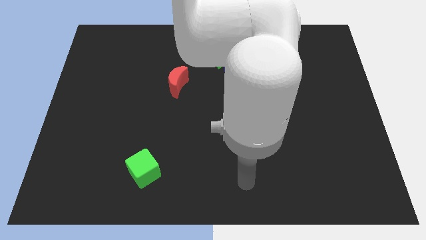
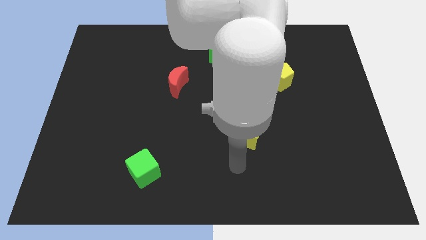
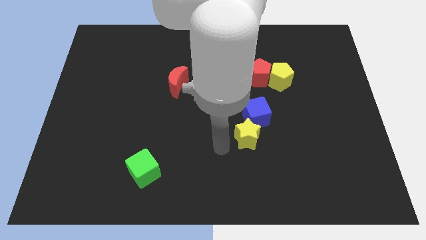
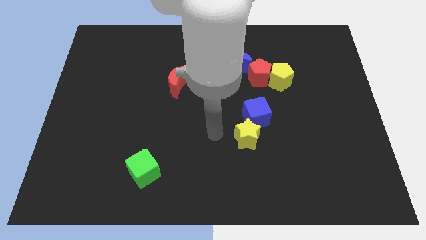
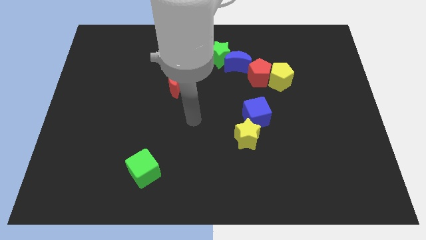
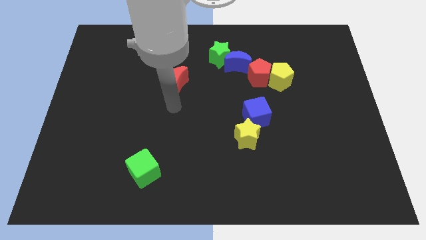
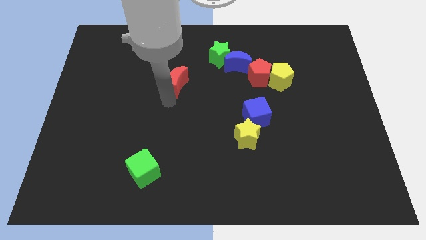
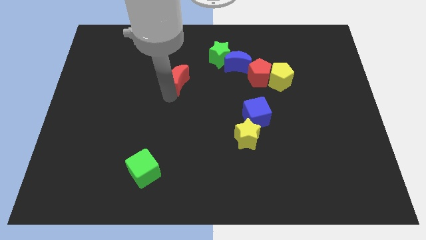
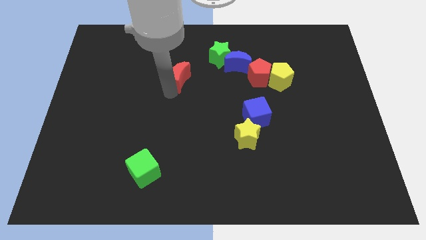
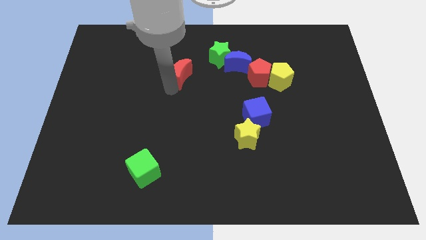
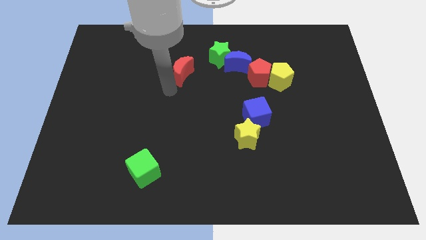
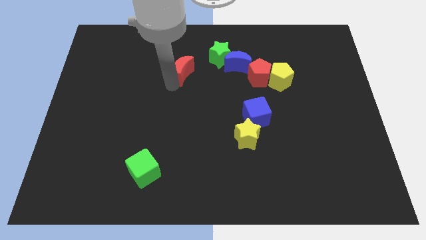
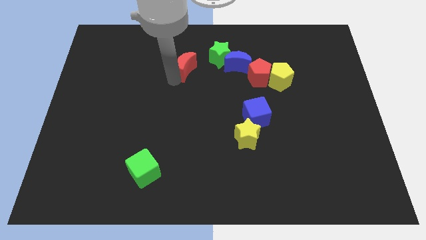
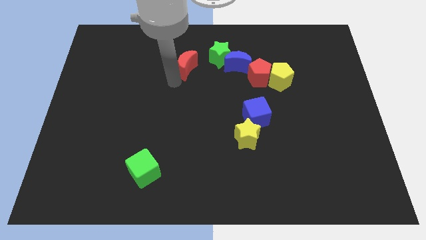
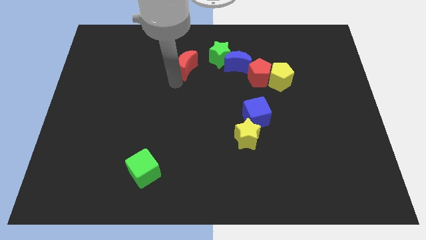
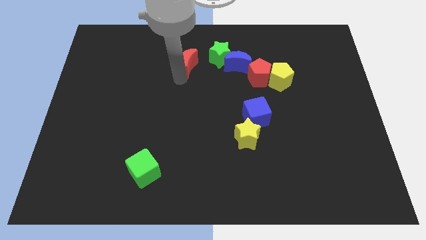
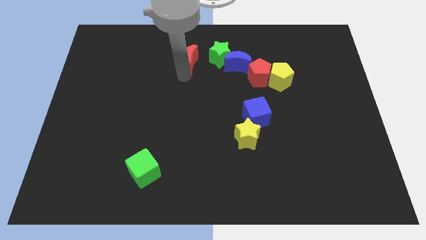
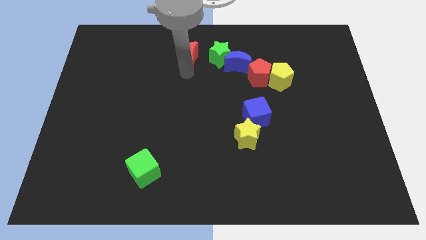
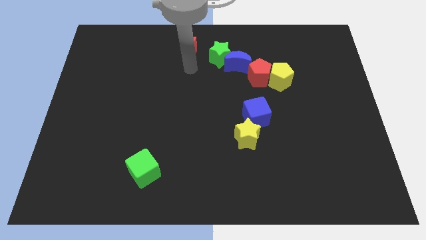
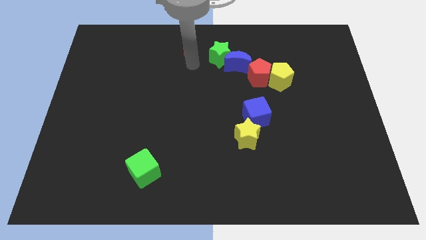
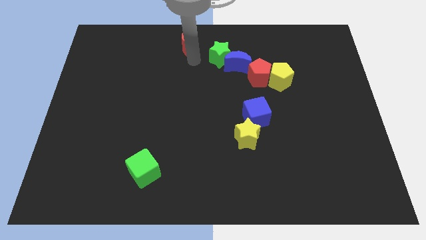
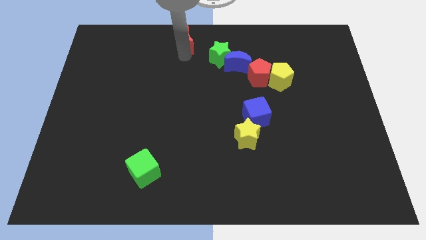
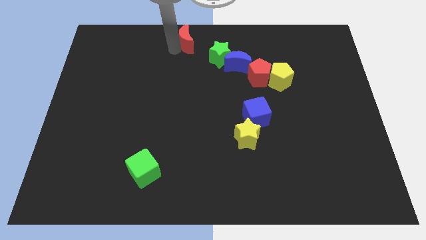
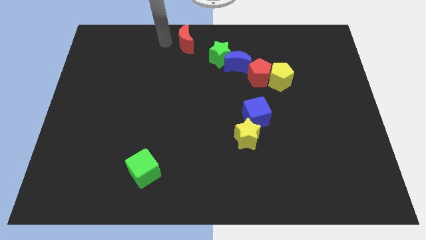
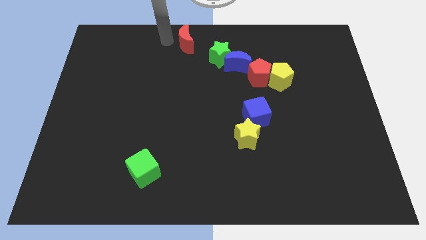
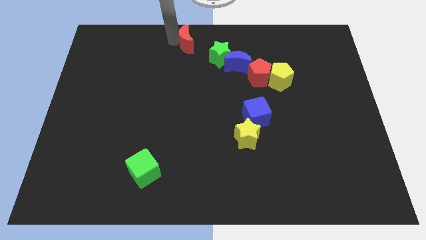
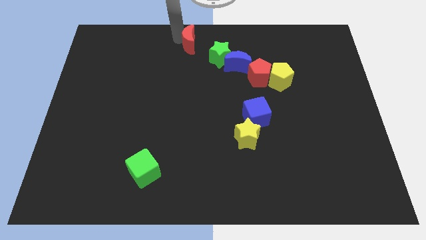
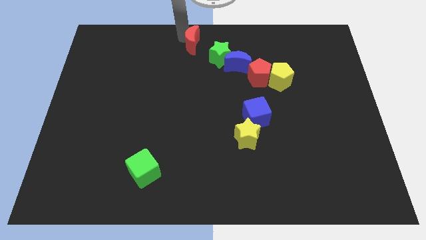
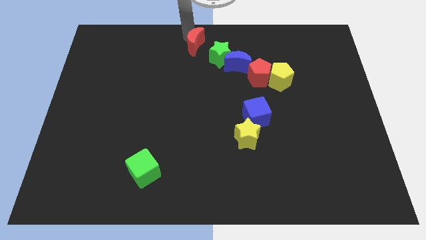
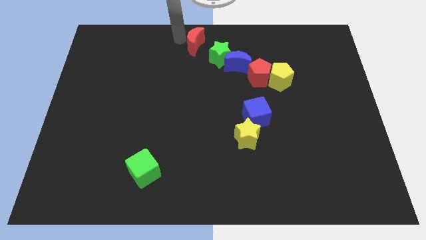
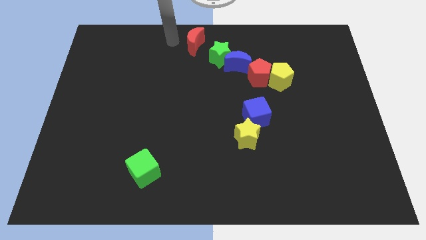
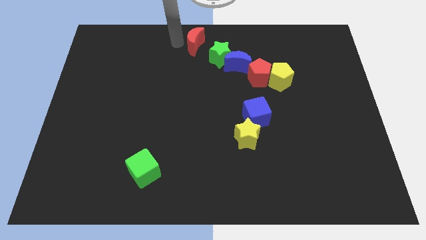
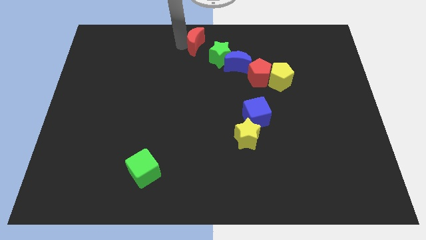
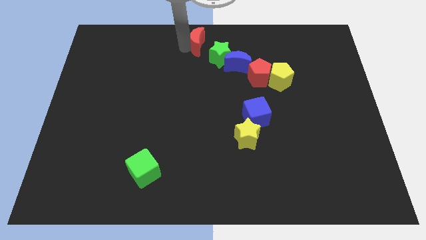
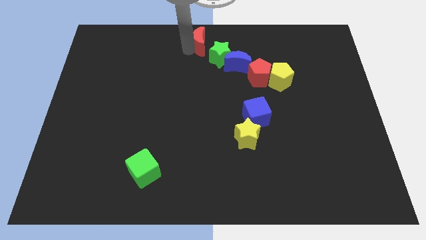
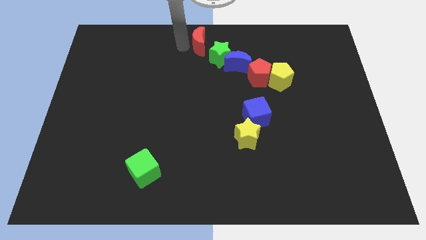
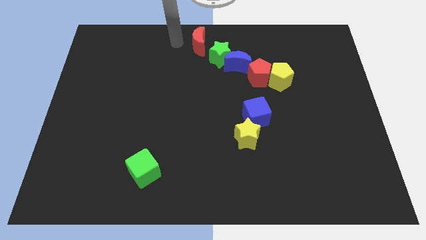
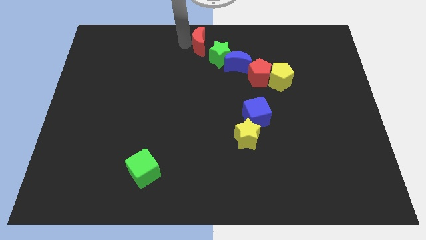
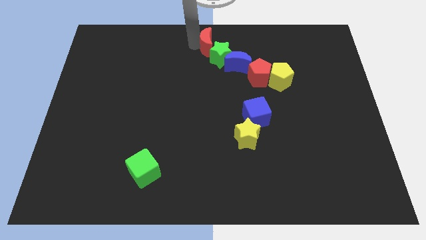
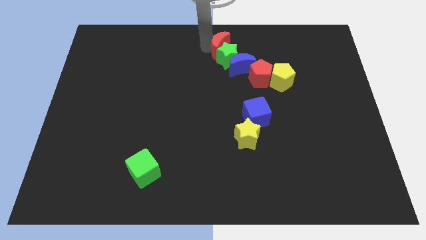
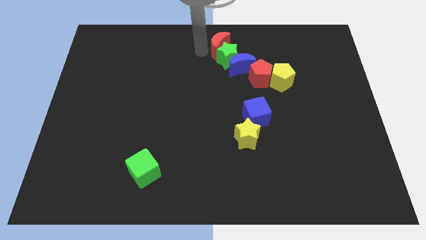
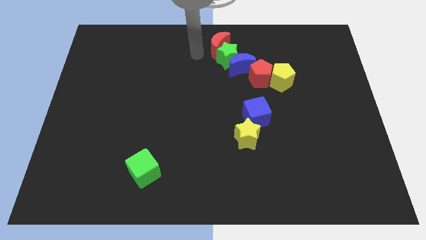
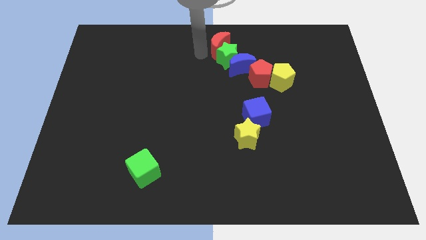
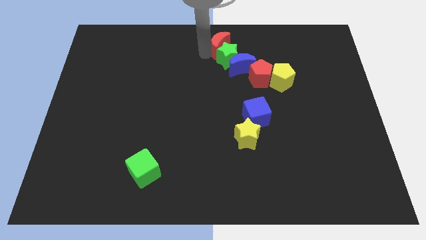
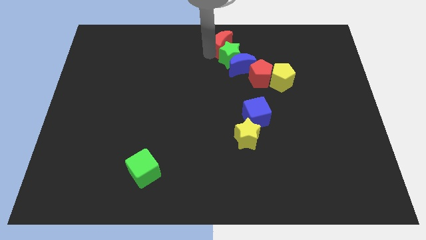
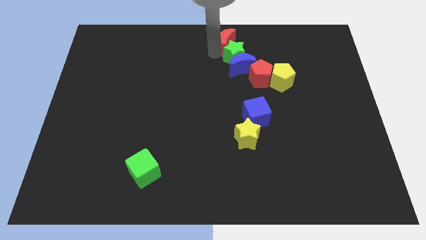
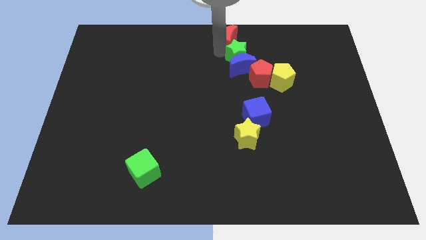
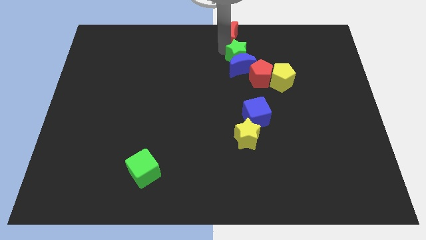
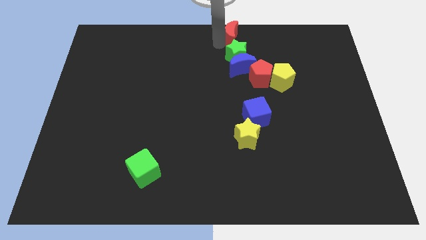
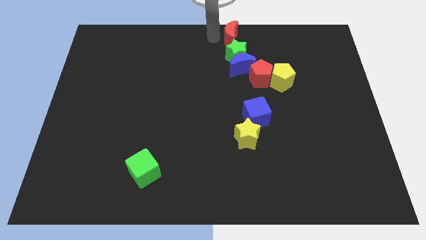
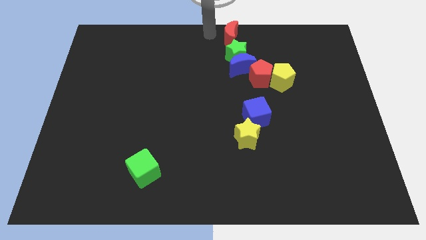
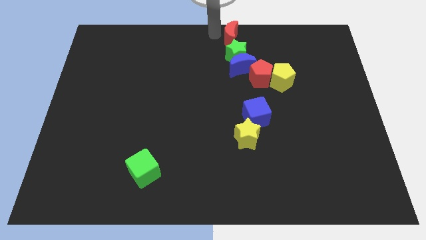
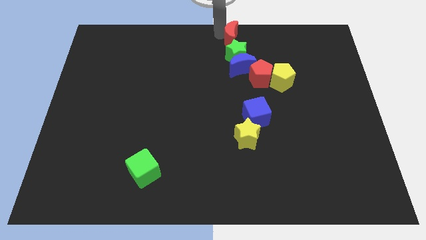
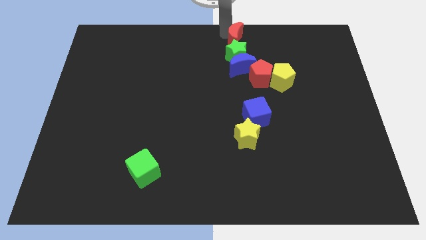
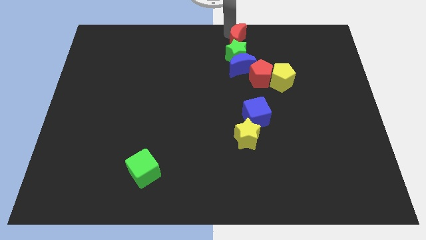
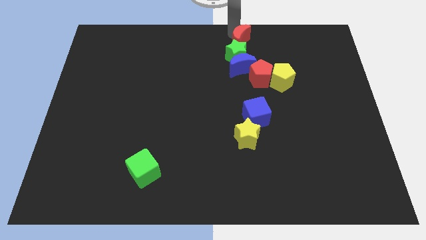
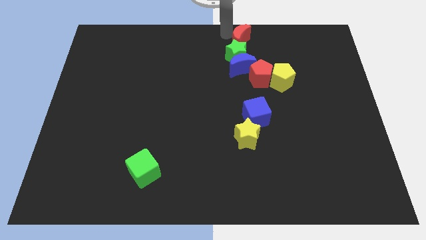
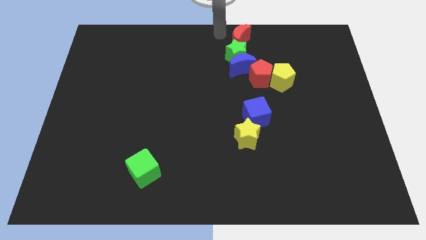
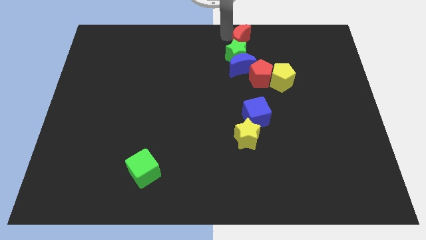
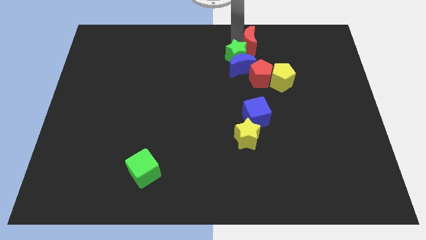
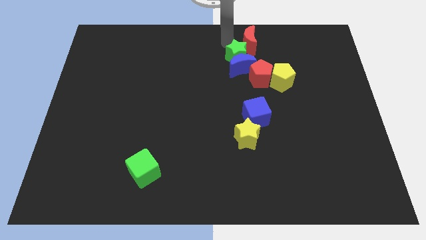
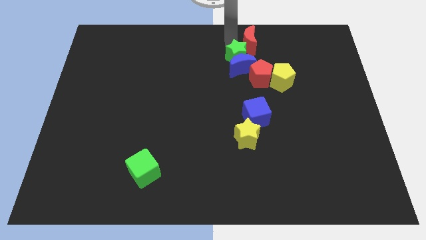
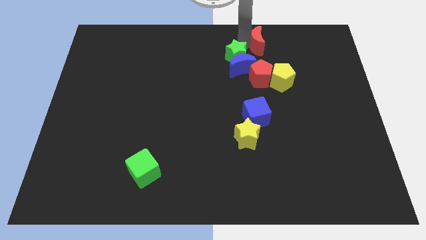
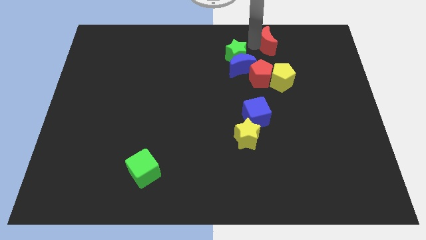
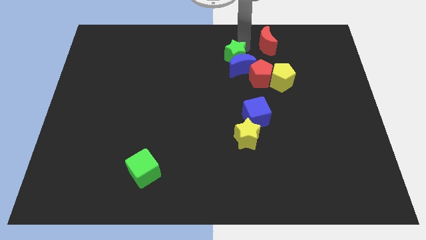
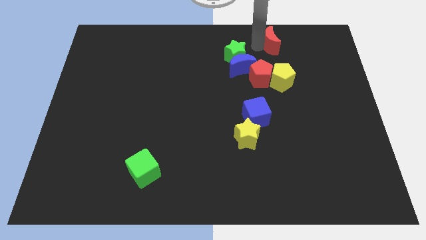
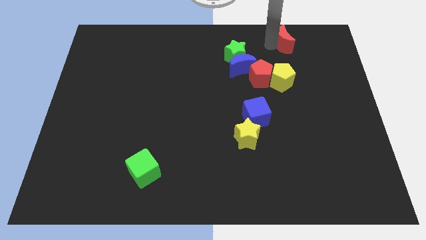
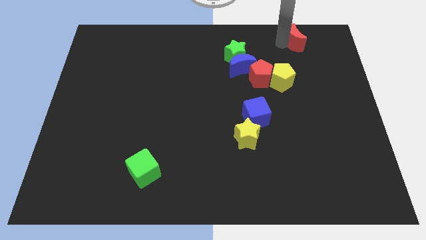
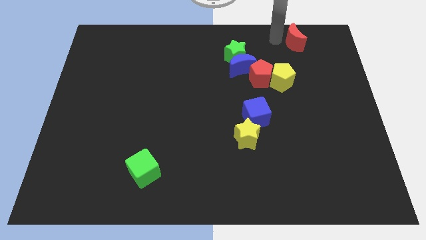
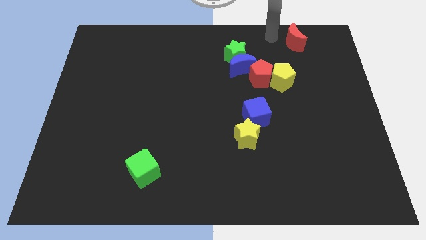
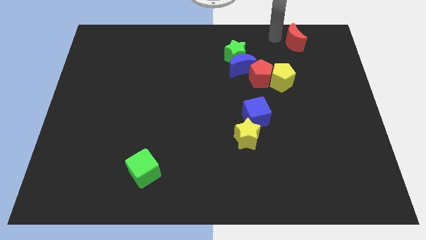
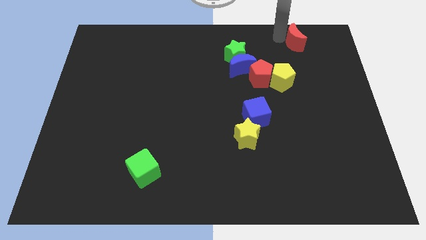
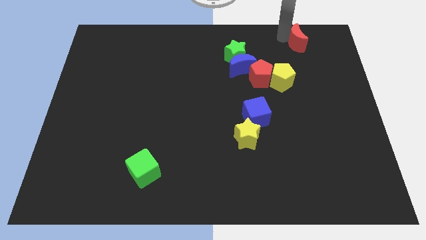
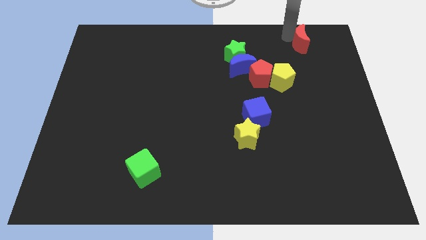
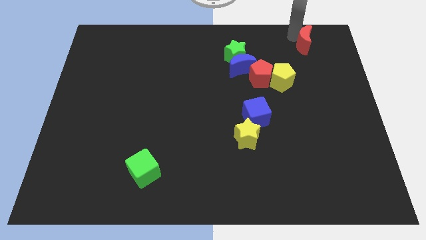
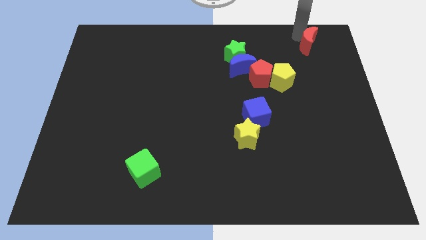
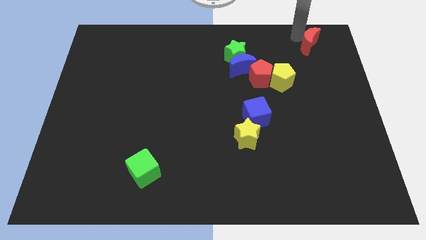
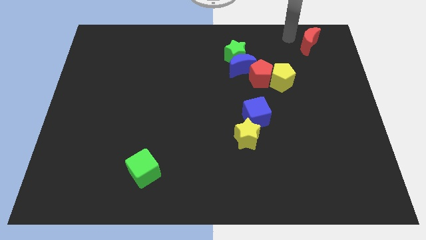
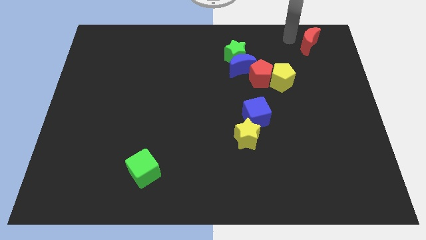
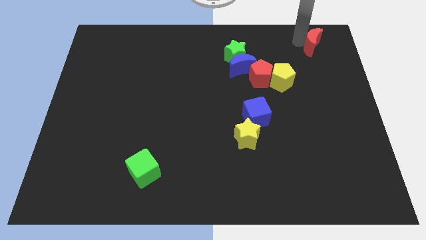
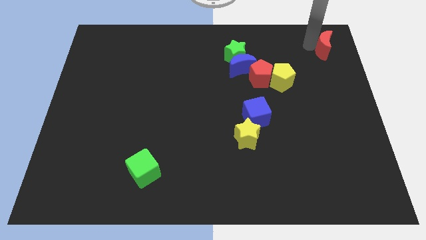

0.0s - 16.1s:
push the red moon to the top right

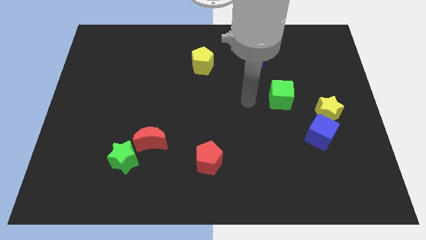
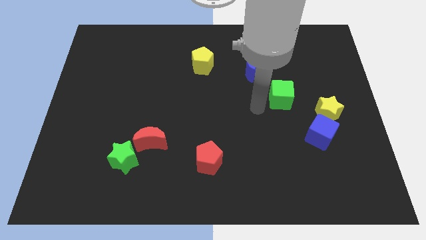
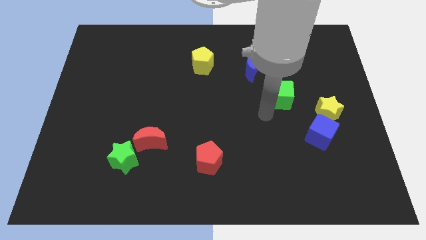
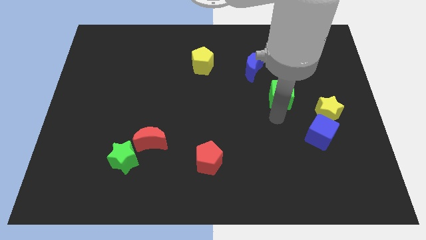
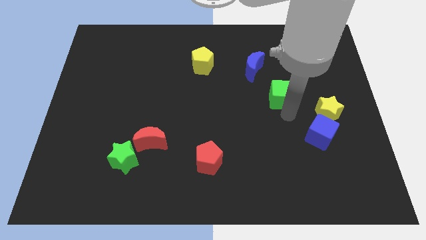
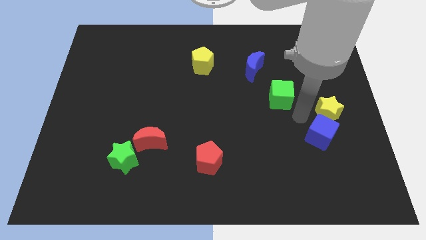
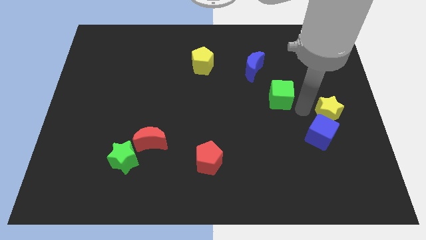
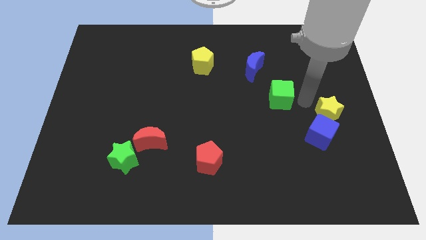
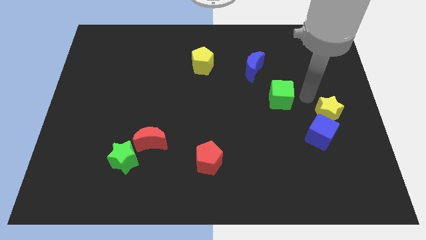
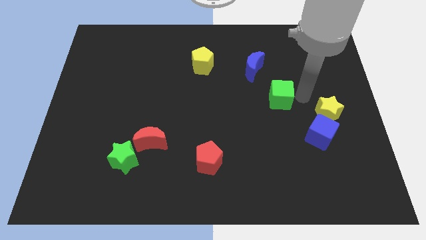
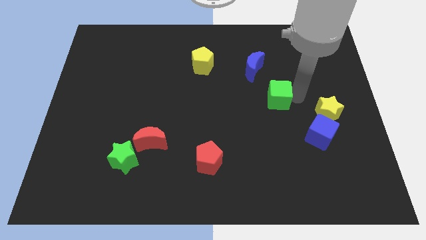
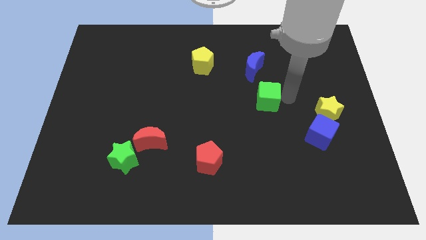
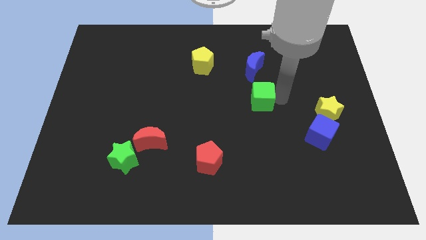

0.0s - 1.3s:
push the green cube to the center
